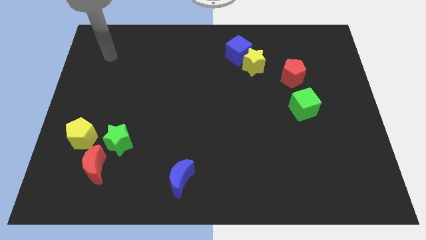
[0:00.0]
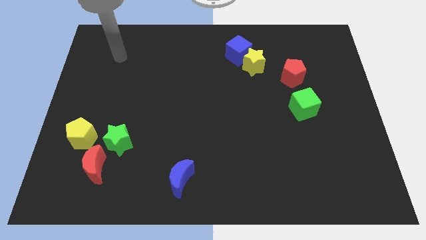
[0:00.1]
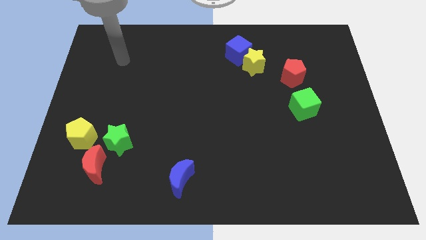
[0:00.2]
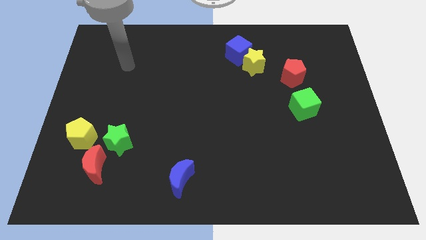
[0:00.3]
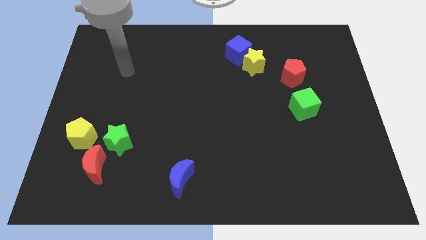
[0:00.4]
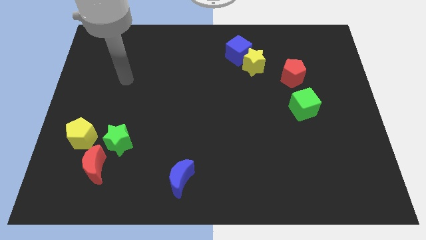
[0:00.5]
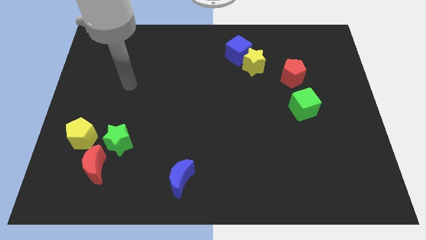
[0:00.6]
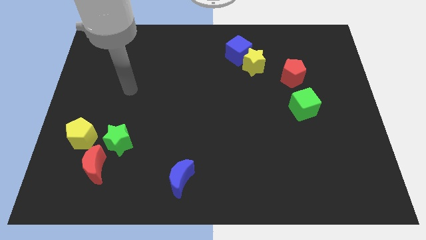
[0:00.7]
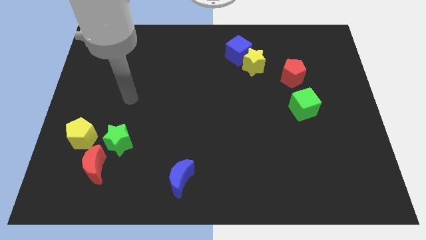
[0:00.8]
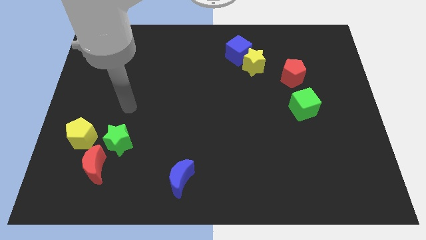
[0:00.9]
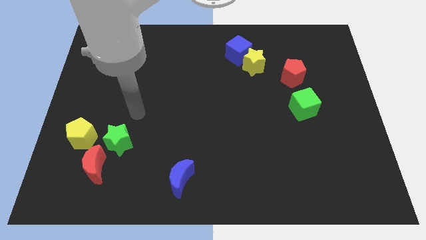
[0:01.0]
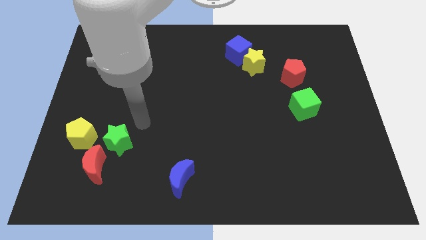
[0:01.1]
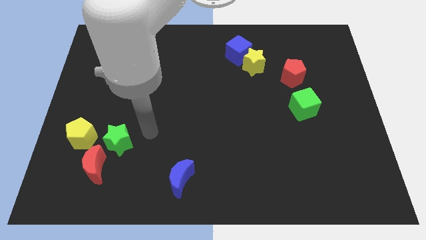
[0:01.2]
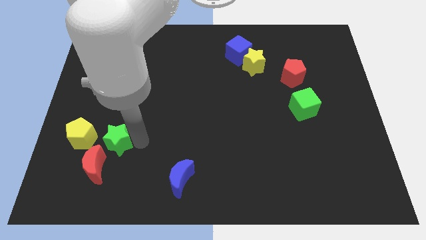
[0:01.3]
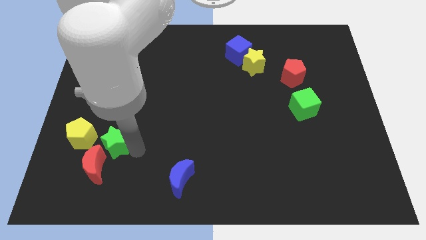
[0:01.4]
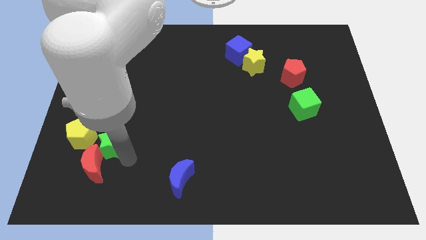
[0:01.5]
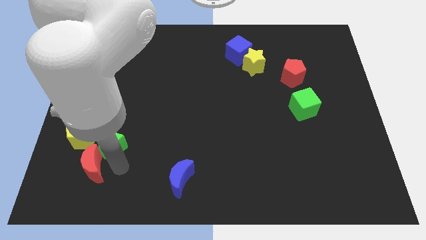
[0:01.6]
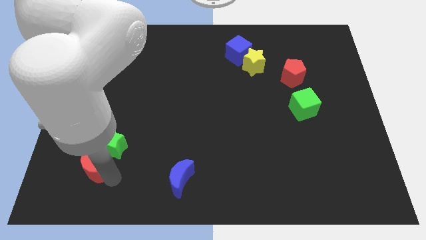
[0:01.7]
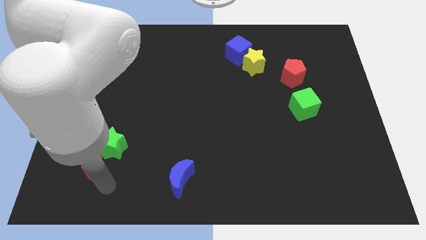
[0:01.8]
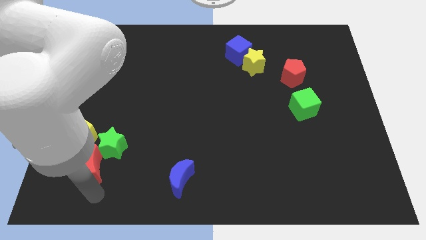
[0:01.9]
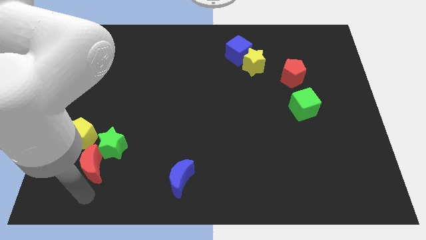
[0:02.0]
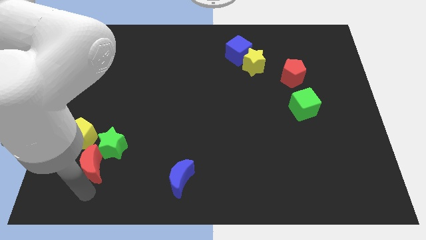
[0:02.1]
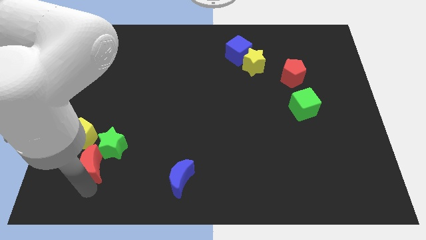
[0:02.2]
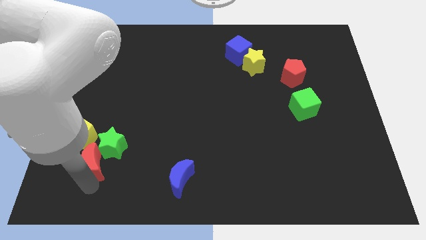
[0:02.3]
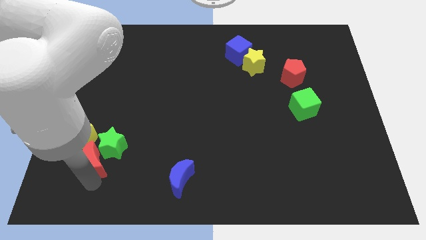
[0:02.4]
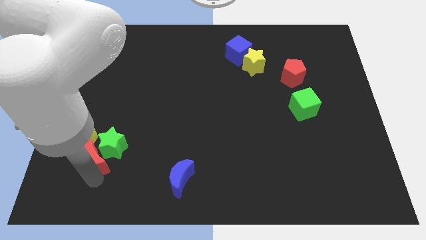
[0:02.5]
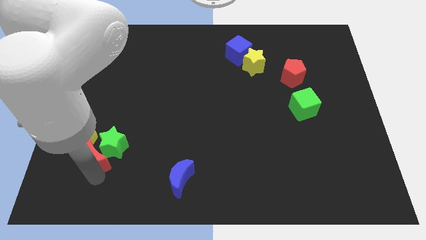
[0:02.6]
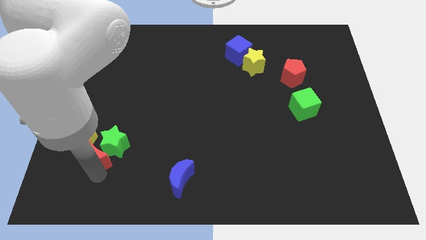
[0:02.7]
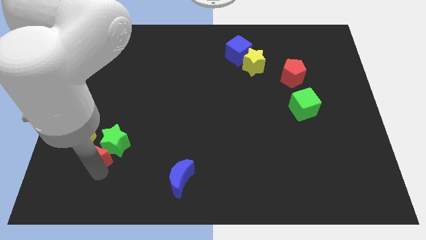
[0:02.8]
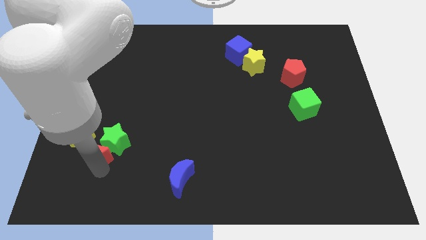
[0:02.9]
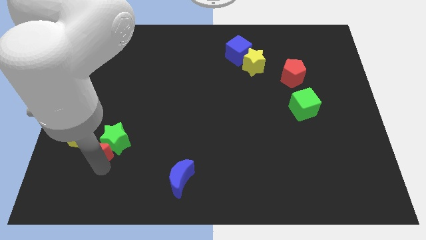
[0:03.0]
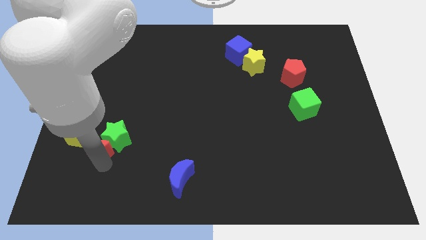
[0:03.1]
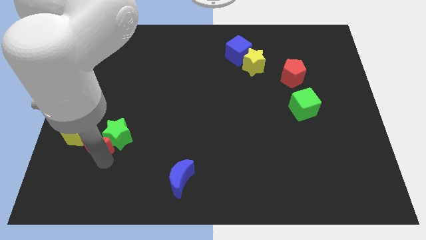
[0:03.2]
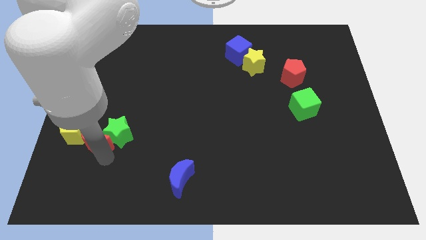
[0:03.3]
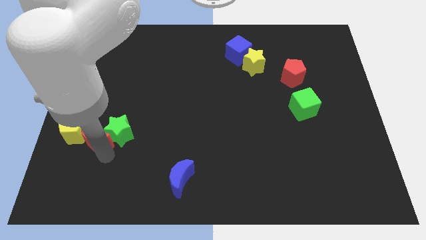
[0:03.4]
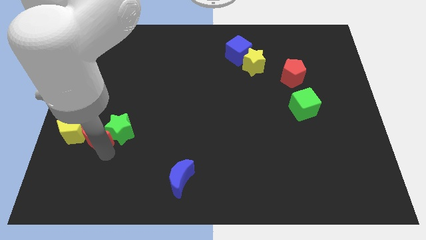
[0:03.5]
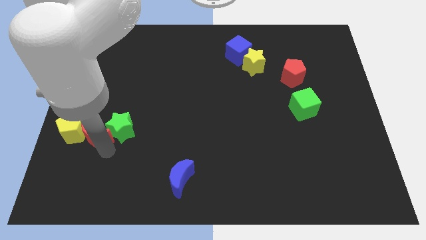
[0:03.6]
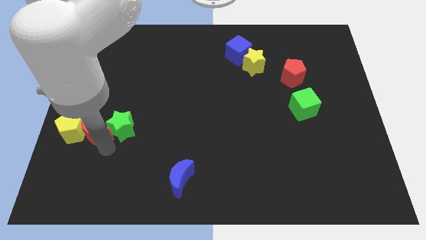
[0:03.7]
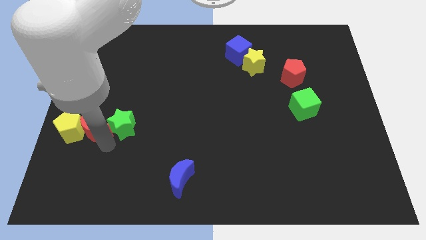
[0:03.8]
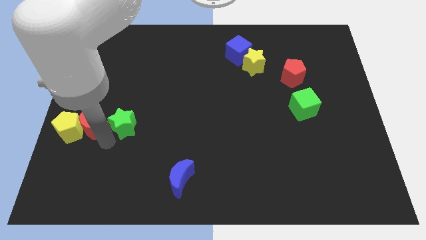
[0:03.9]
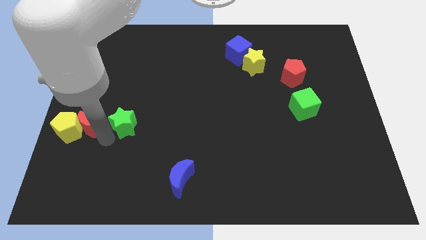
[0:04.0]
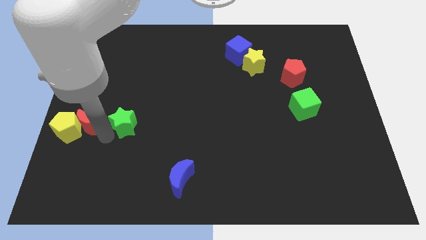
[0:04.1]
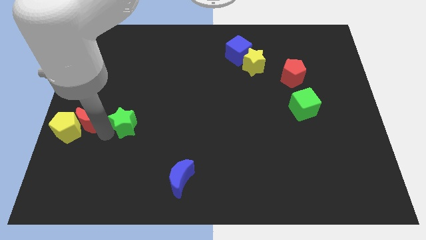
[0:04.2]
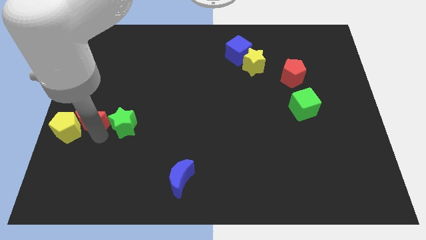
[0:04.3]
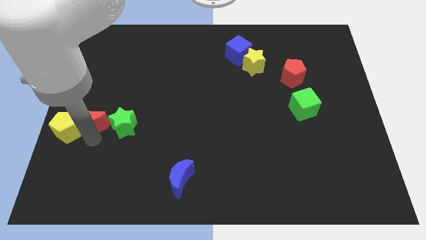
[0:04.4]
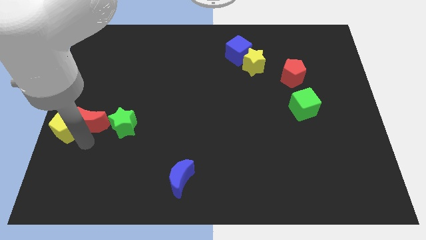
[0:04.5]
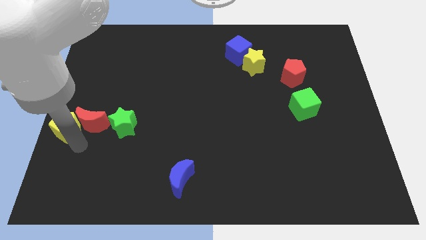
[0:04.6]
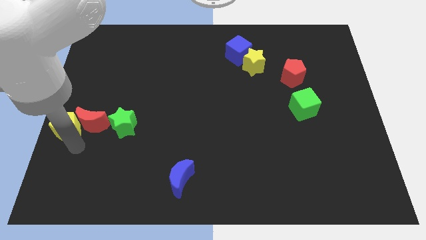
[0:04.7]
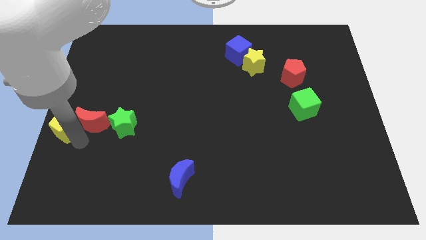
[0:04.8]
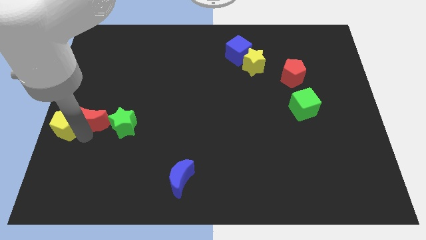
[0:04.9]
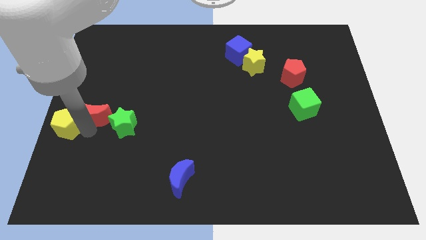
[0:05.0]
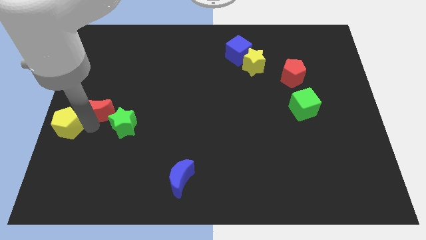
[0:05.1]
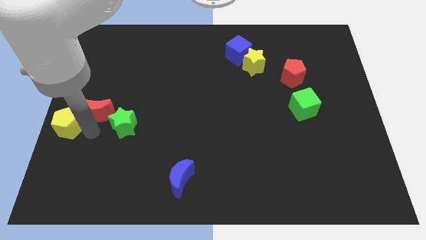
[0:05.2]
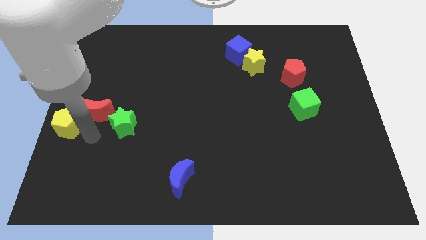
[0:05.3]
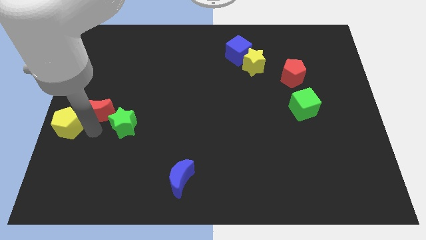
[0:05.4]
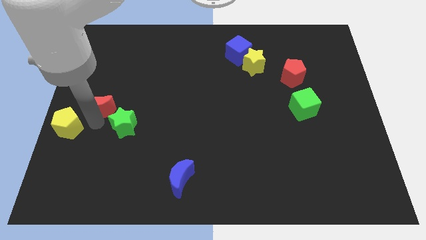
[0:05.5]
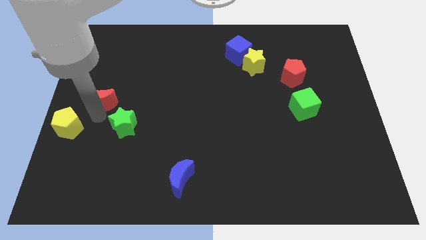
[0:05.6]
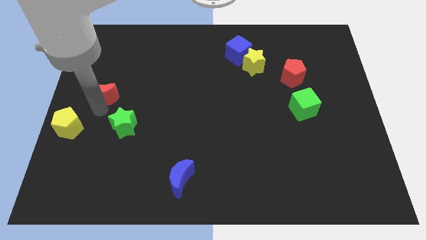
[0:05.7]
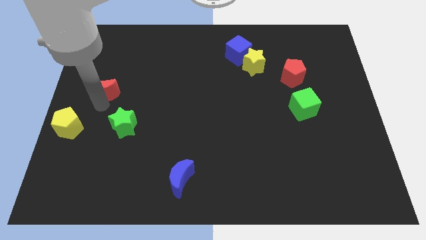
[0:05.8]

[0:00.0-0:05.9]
move the red moon upwards

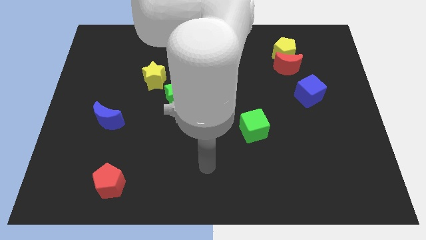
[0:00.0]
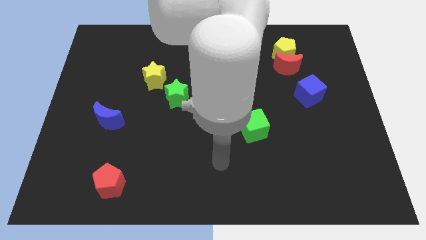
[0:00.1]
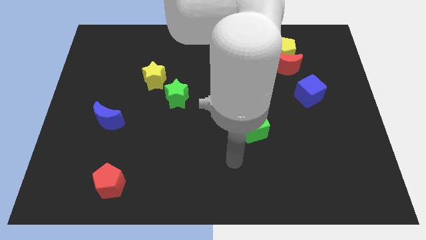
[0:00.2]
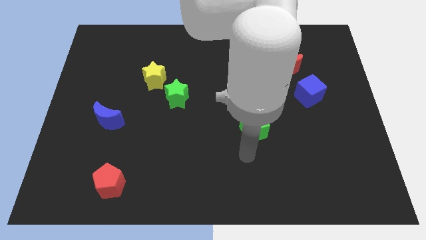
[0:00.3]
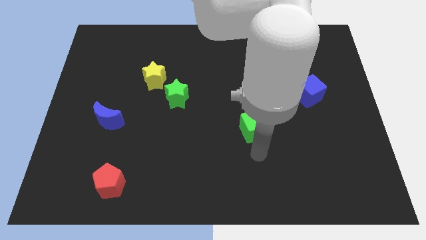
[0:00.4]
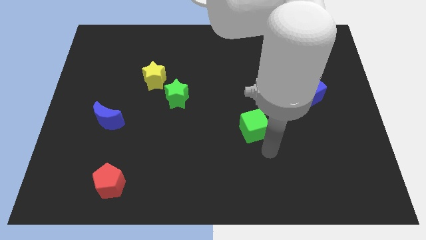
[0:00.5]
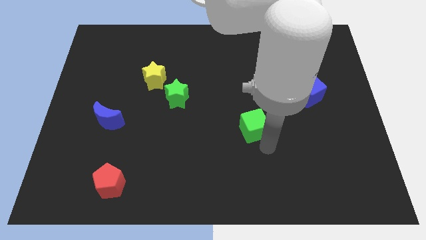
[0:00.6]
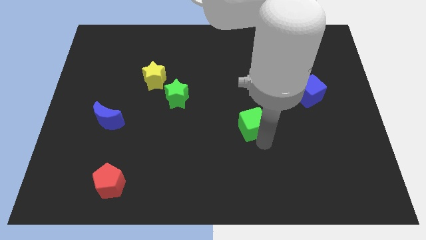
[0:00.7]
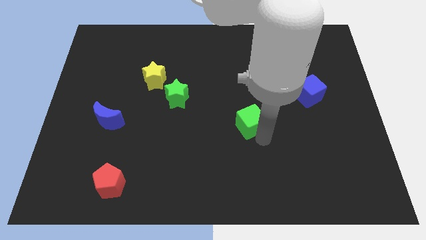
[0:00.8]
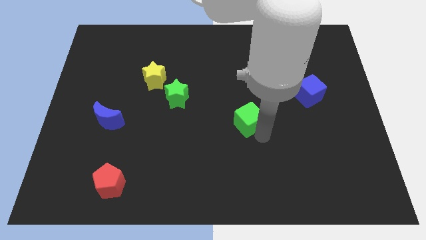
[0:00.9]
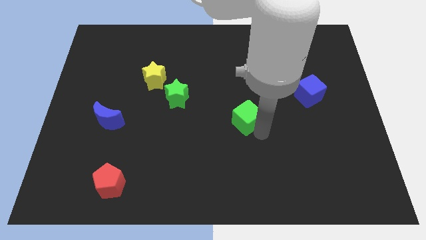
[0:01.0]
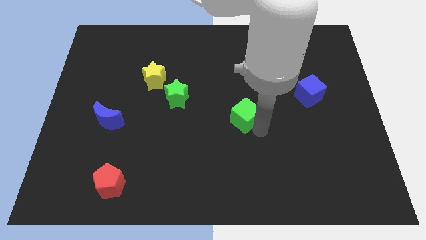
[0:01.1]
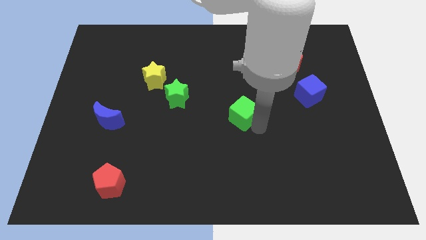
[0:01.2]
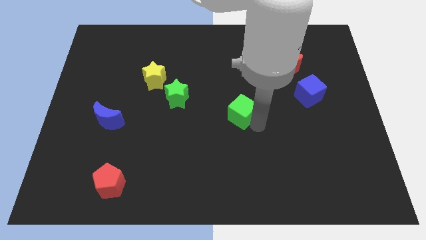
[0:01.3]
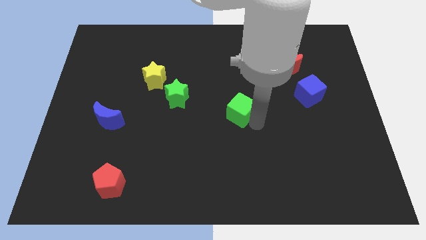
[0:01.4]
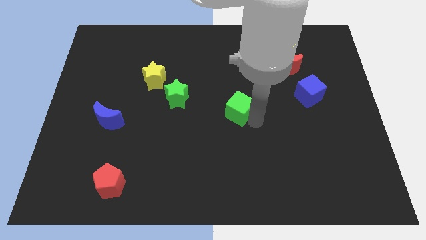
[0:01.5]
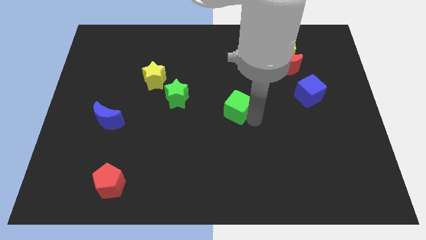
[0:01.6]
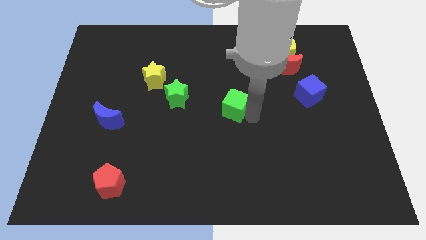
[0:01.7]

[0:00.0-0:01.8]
slightly push the green cube upwards and to the left

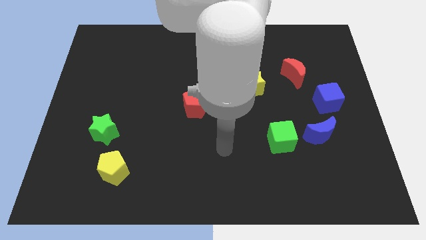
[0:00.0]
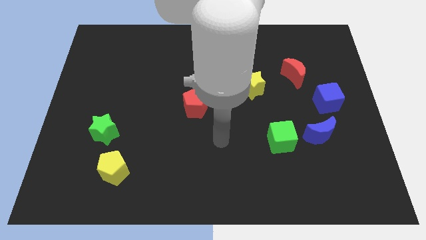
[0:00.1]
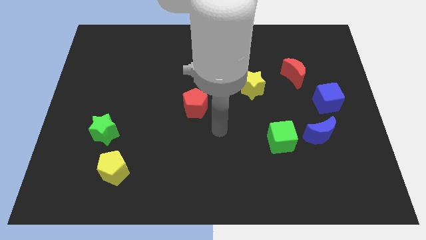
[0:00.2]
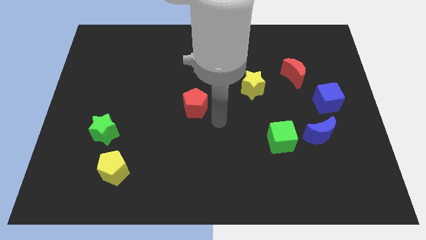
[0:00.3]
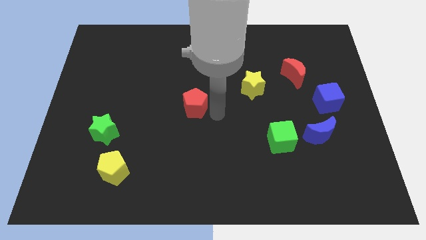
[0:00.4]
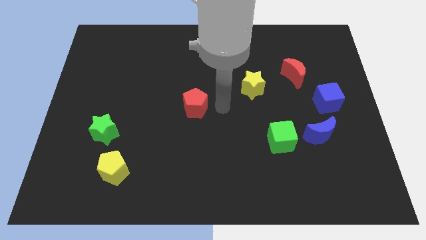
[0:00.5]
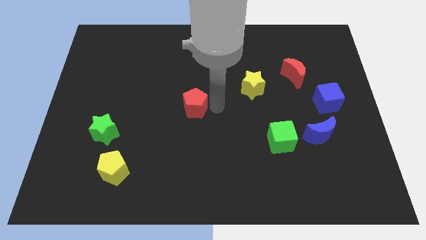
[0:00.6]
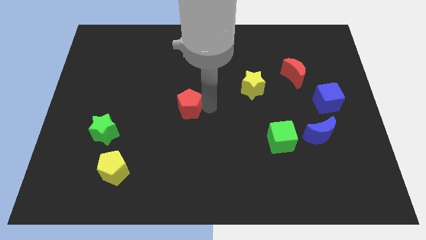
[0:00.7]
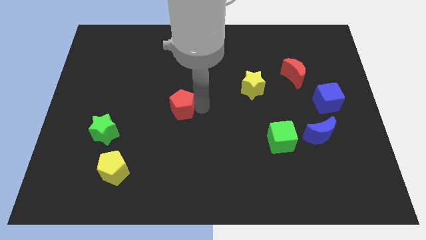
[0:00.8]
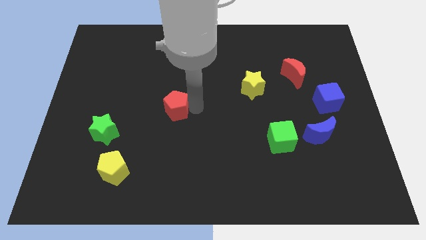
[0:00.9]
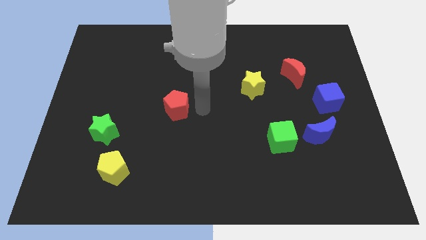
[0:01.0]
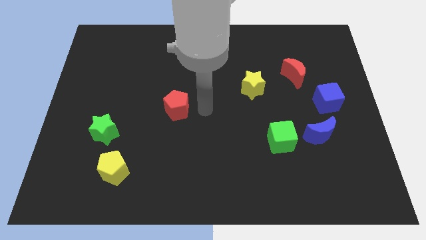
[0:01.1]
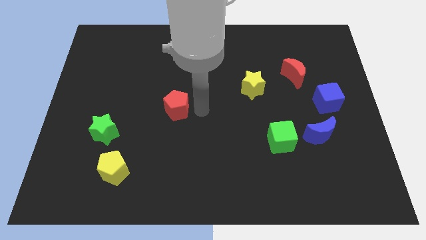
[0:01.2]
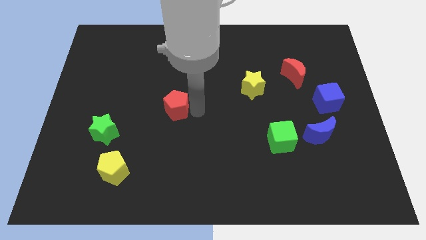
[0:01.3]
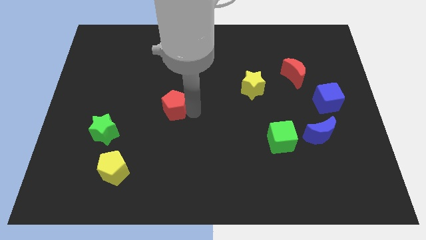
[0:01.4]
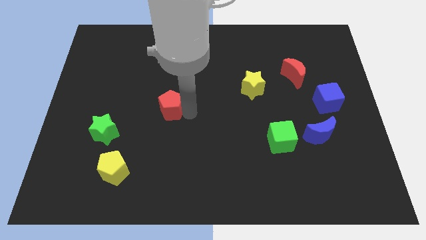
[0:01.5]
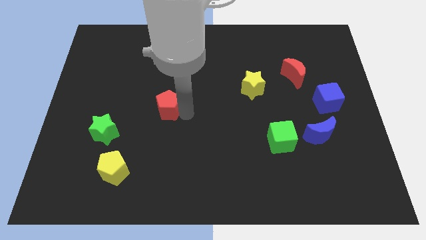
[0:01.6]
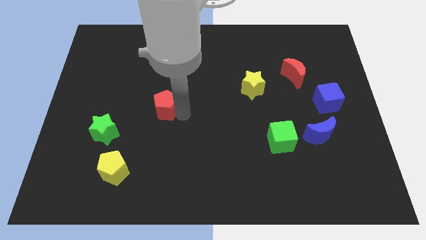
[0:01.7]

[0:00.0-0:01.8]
move the red pentagon left a little bit
